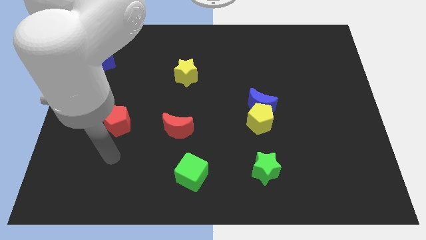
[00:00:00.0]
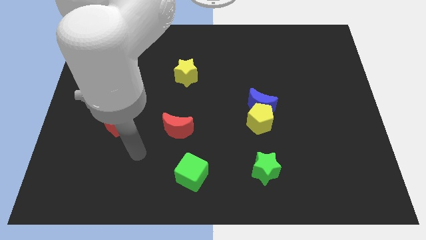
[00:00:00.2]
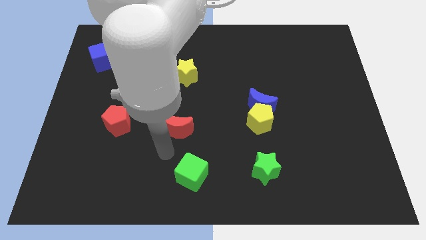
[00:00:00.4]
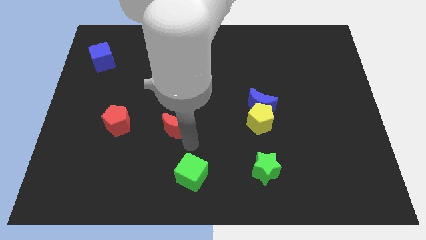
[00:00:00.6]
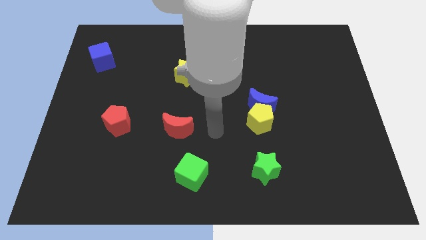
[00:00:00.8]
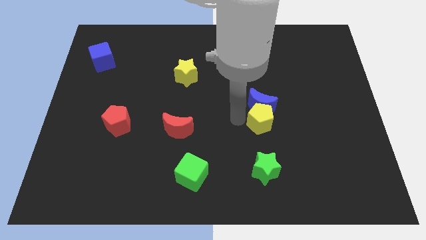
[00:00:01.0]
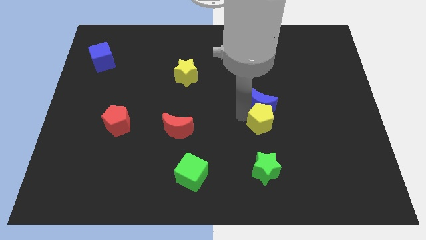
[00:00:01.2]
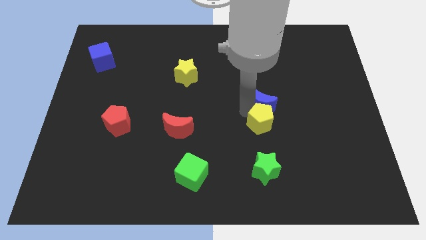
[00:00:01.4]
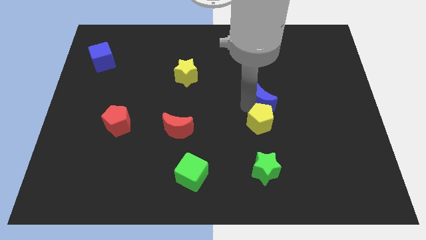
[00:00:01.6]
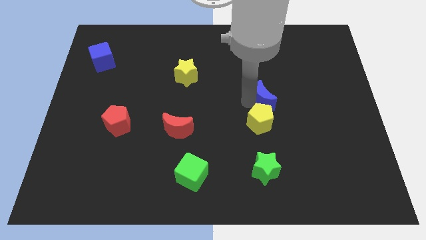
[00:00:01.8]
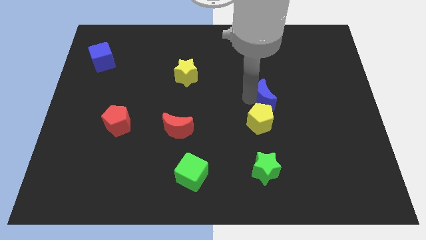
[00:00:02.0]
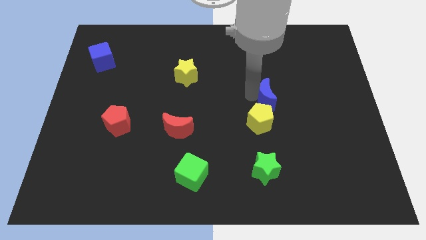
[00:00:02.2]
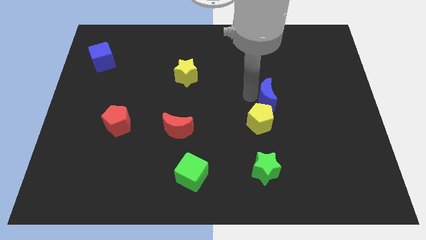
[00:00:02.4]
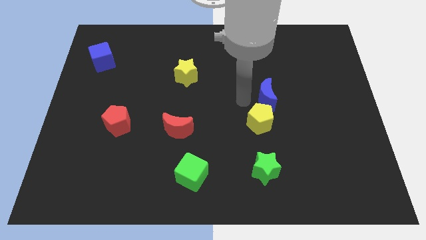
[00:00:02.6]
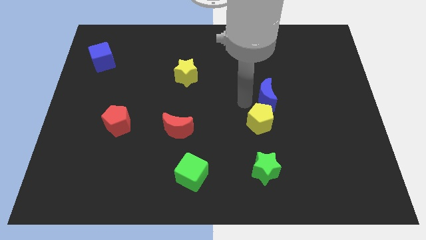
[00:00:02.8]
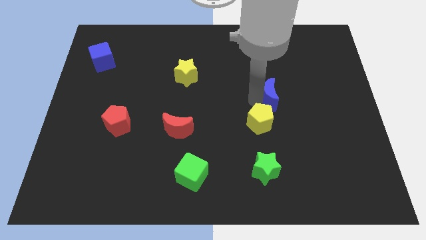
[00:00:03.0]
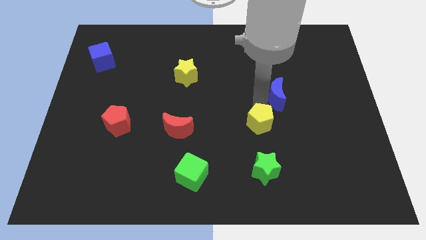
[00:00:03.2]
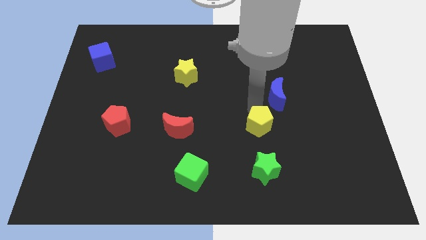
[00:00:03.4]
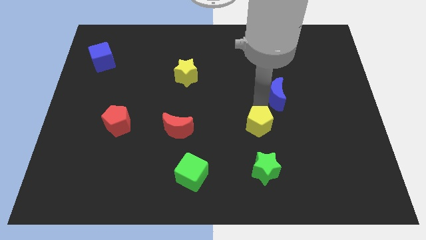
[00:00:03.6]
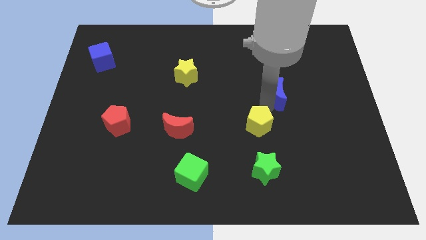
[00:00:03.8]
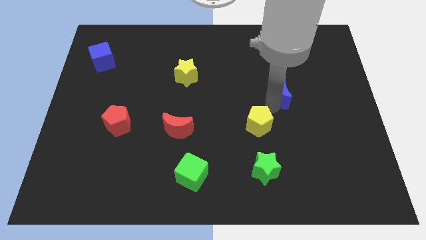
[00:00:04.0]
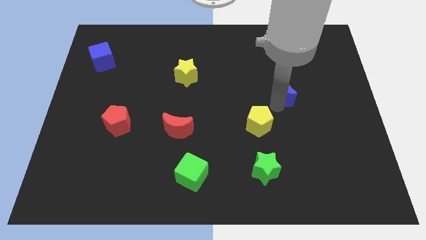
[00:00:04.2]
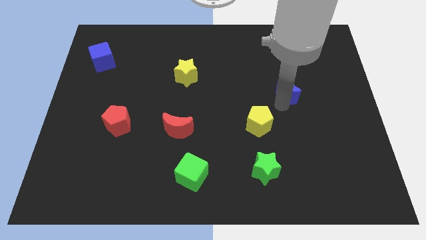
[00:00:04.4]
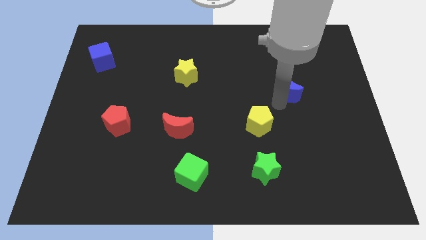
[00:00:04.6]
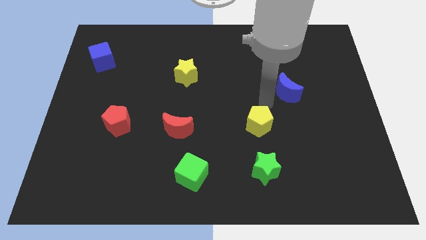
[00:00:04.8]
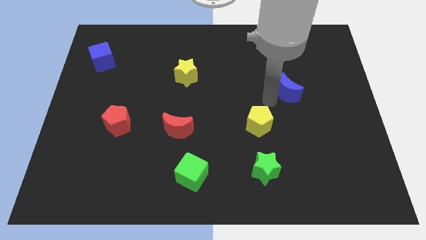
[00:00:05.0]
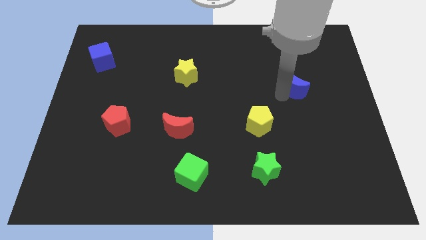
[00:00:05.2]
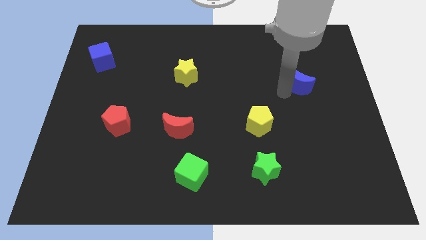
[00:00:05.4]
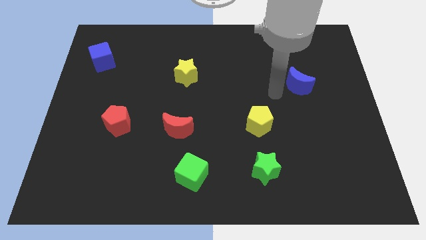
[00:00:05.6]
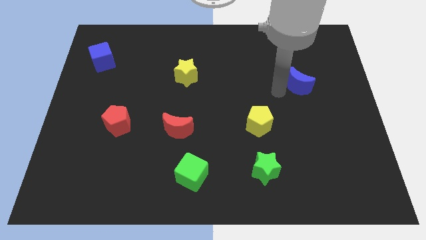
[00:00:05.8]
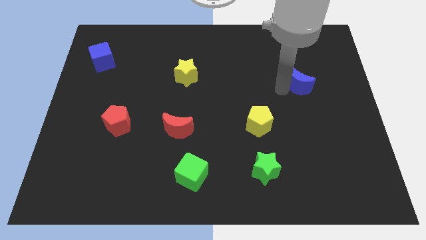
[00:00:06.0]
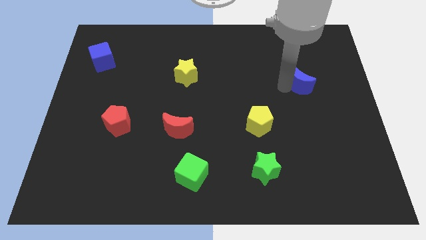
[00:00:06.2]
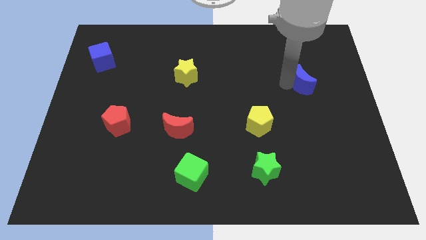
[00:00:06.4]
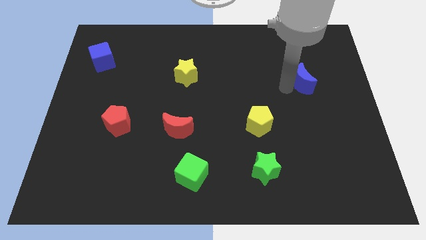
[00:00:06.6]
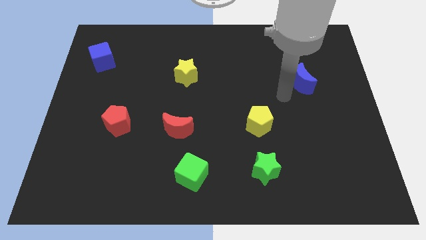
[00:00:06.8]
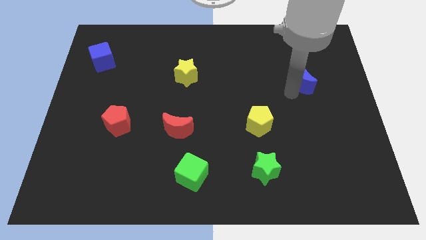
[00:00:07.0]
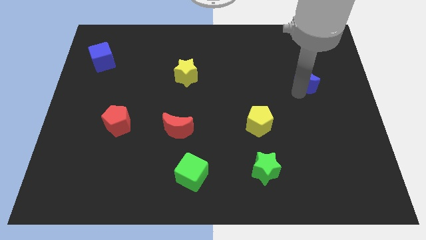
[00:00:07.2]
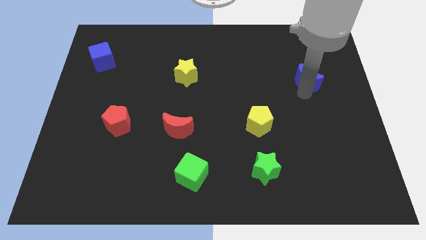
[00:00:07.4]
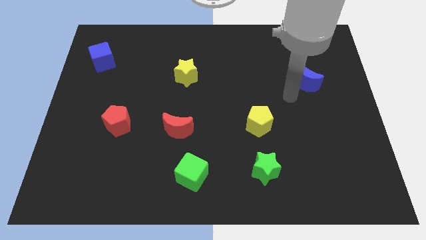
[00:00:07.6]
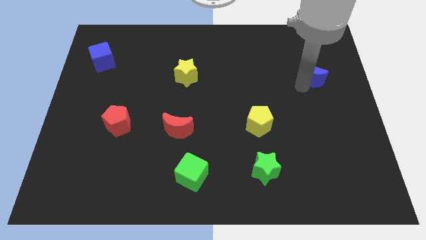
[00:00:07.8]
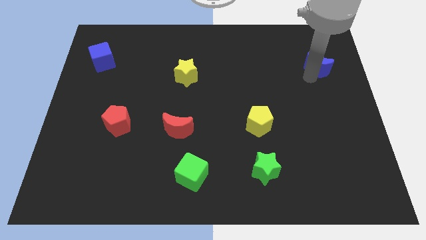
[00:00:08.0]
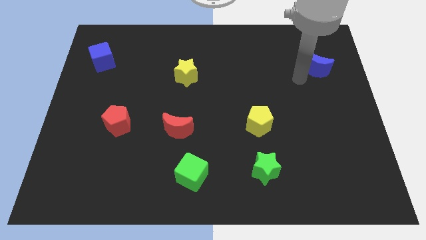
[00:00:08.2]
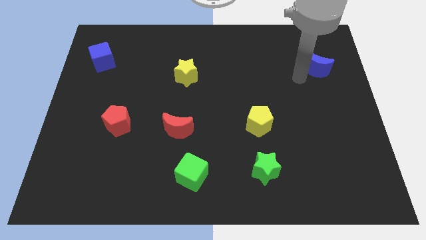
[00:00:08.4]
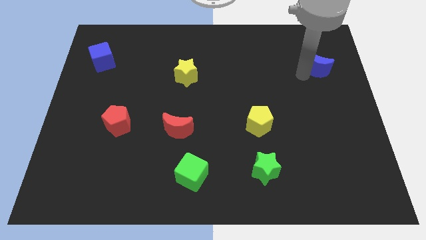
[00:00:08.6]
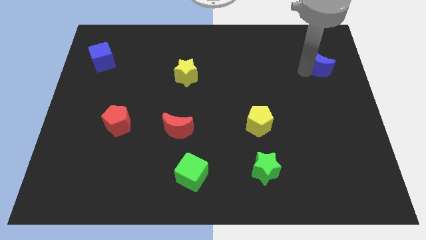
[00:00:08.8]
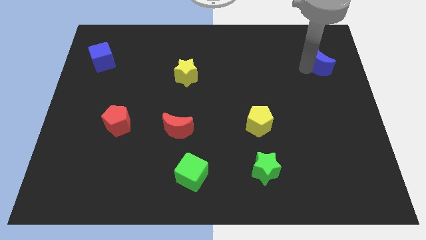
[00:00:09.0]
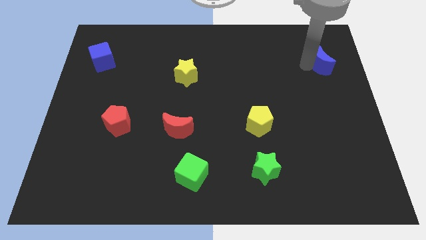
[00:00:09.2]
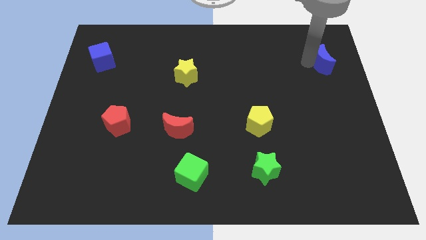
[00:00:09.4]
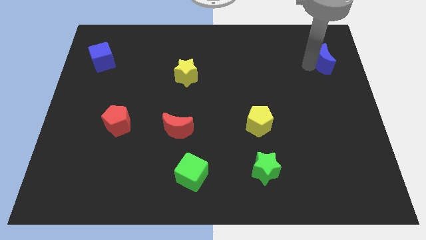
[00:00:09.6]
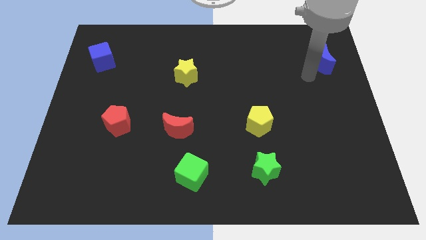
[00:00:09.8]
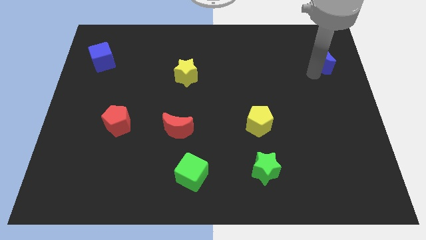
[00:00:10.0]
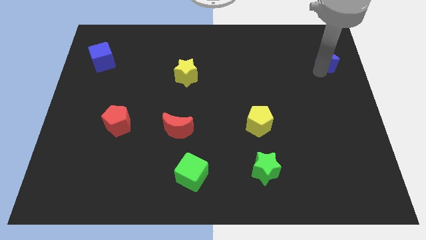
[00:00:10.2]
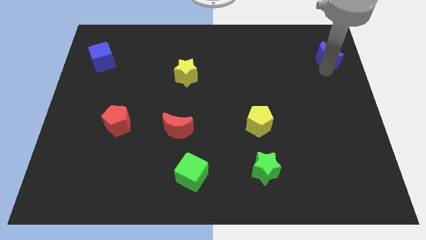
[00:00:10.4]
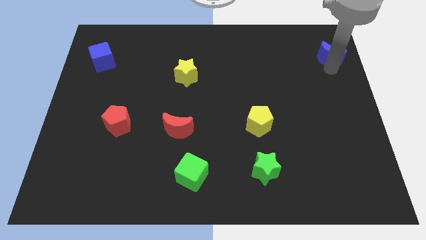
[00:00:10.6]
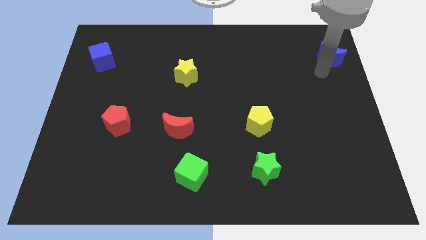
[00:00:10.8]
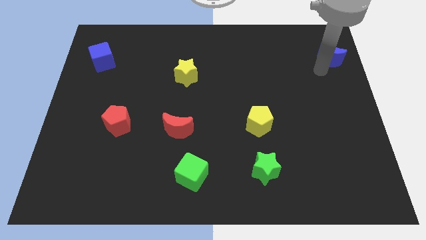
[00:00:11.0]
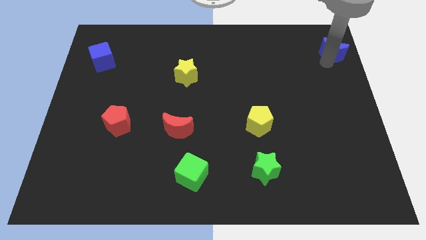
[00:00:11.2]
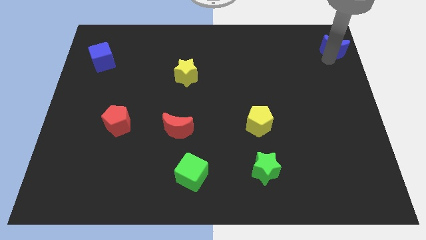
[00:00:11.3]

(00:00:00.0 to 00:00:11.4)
put the blue moon to the upper right corner

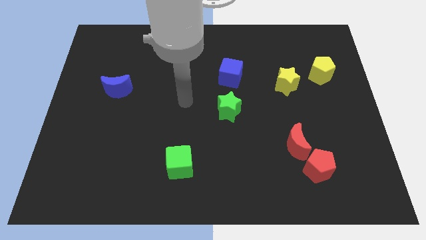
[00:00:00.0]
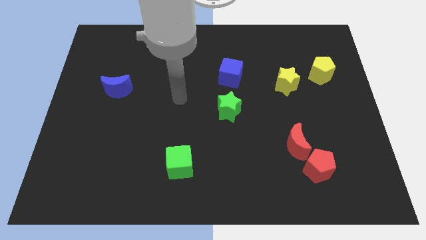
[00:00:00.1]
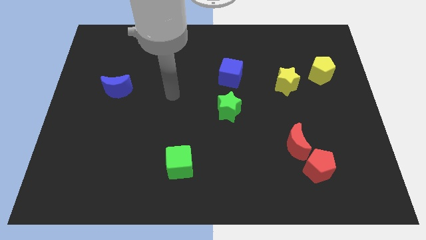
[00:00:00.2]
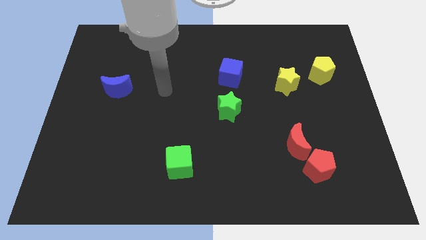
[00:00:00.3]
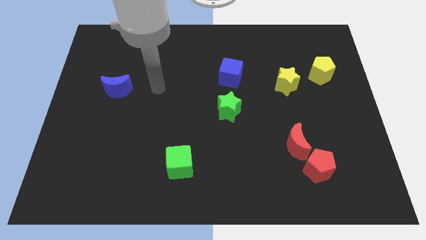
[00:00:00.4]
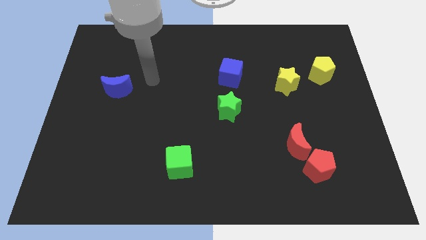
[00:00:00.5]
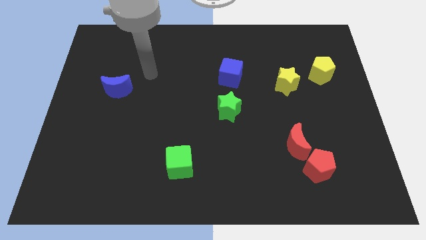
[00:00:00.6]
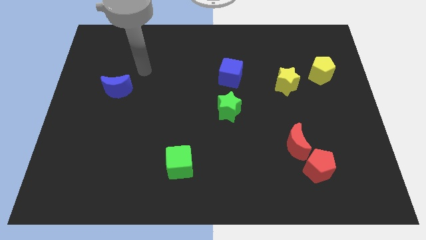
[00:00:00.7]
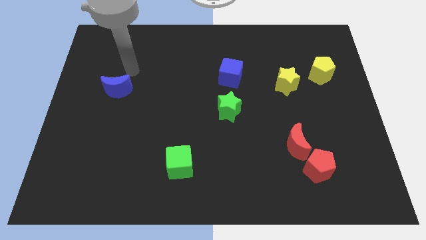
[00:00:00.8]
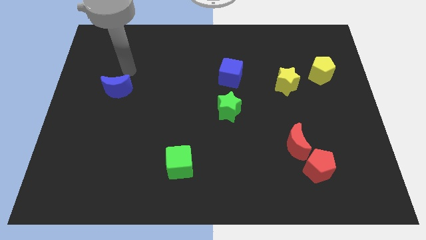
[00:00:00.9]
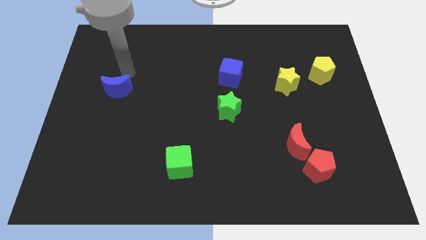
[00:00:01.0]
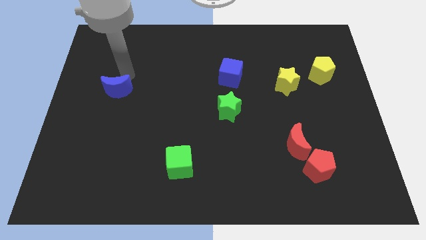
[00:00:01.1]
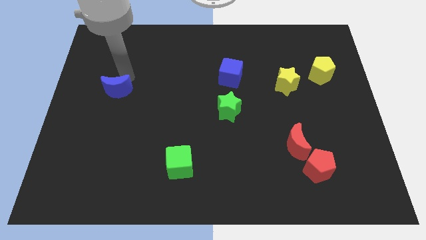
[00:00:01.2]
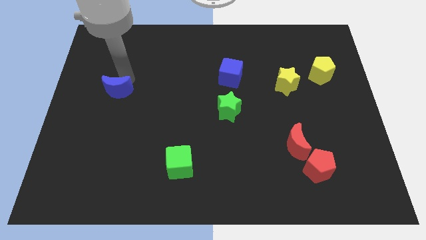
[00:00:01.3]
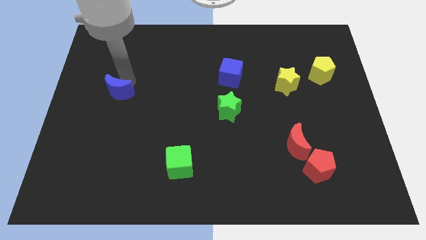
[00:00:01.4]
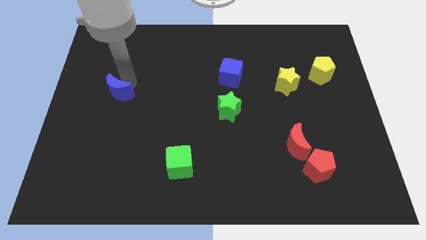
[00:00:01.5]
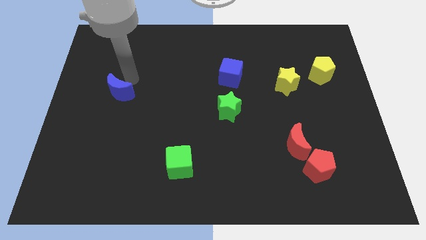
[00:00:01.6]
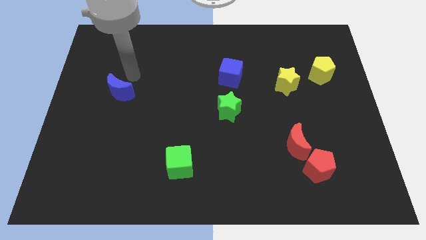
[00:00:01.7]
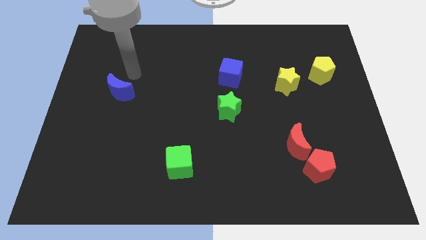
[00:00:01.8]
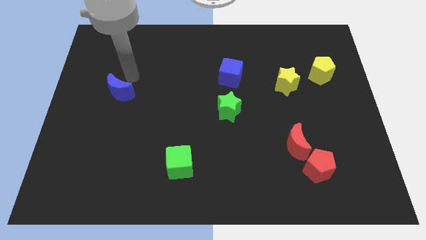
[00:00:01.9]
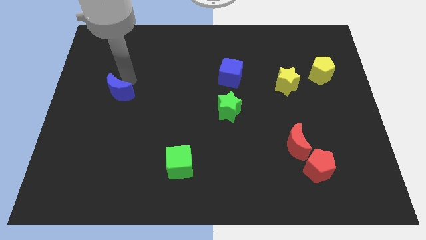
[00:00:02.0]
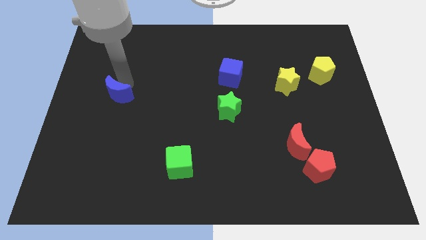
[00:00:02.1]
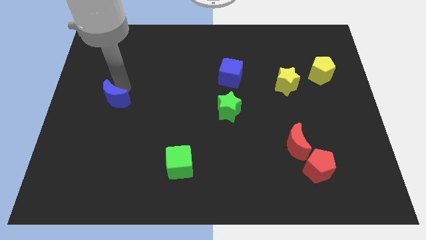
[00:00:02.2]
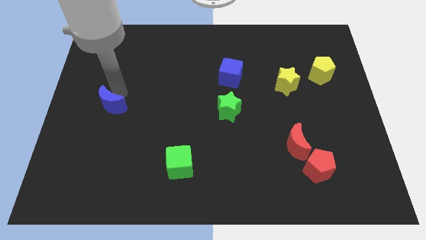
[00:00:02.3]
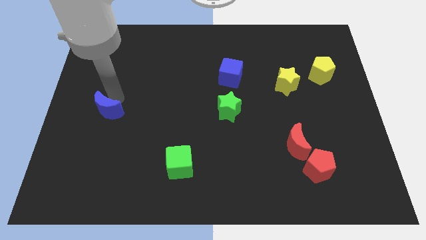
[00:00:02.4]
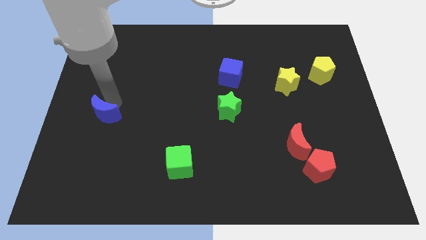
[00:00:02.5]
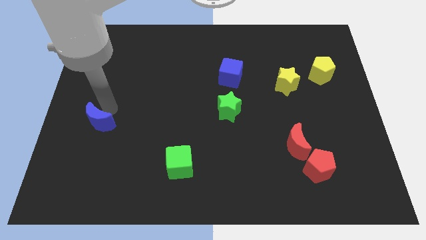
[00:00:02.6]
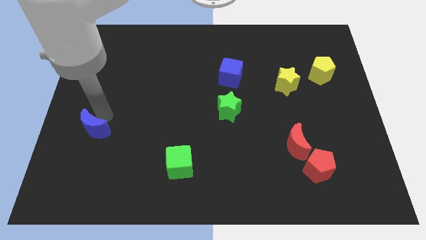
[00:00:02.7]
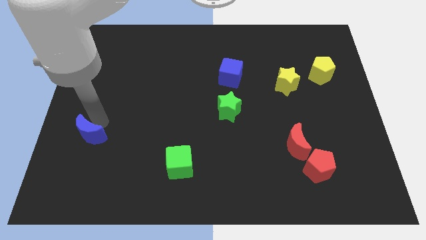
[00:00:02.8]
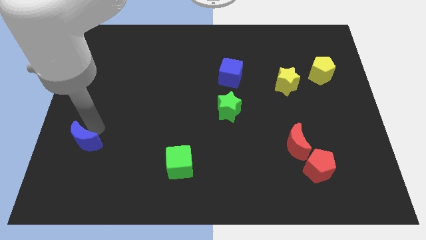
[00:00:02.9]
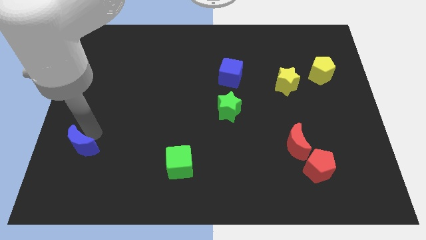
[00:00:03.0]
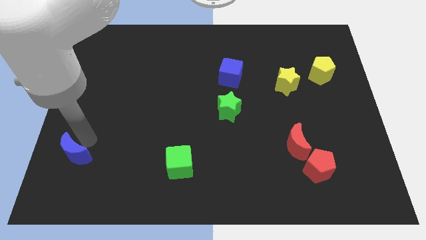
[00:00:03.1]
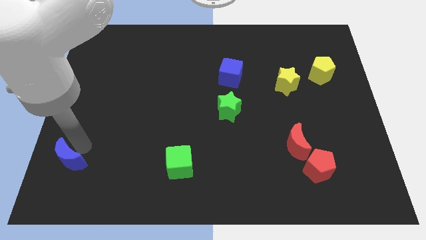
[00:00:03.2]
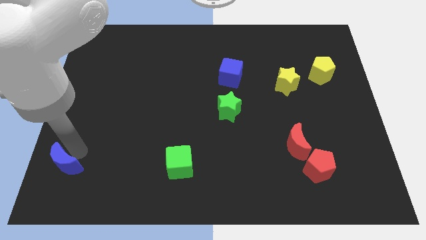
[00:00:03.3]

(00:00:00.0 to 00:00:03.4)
slide the blue moon to the lower left corner
